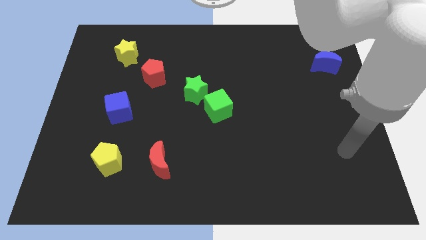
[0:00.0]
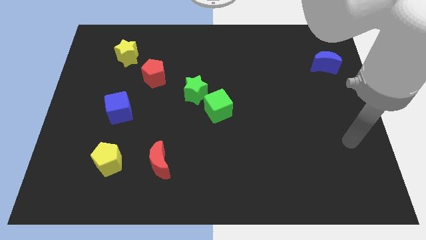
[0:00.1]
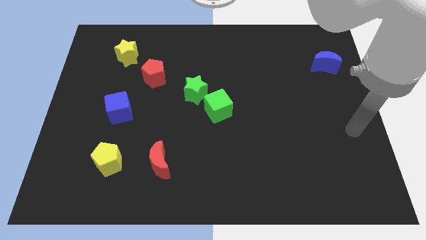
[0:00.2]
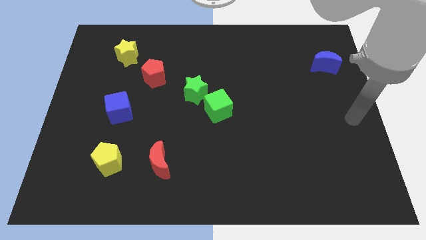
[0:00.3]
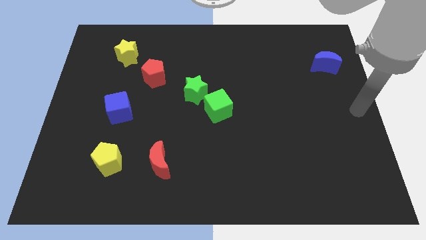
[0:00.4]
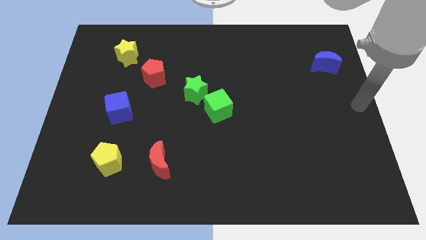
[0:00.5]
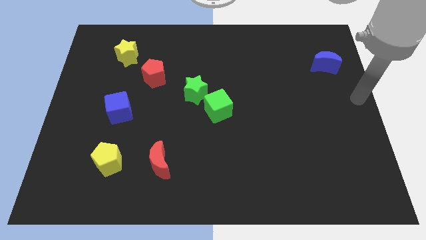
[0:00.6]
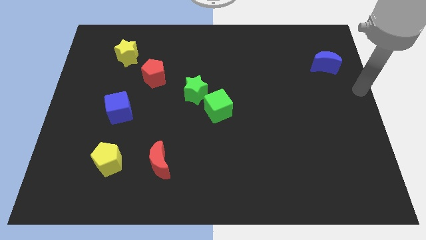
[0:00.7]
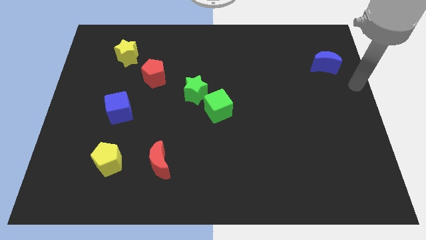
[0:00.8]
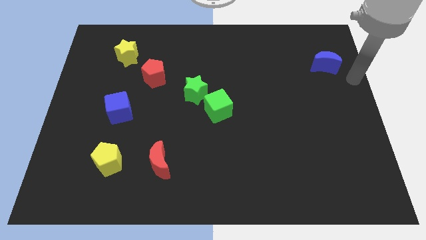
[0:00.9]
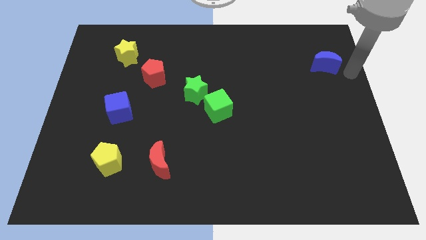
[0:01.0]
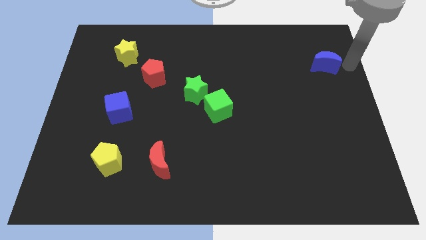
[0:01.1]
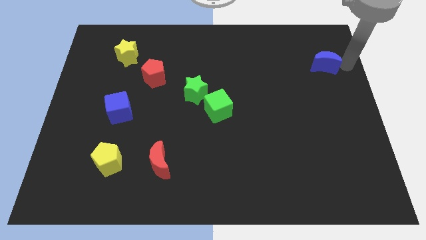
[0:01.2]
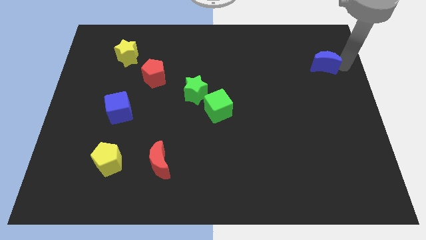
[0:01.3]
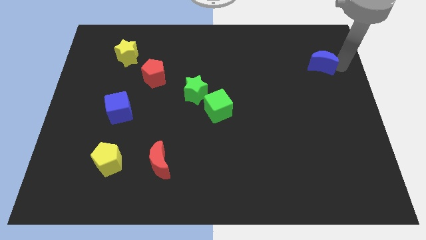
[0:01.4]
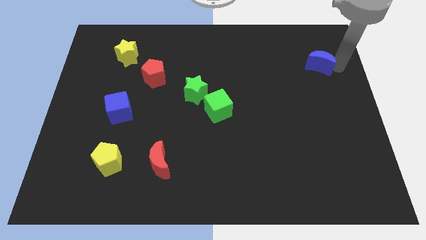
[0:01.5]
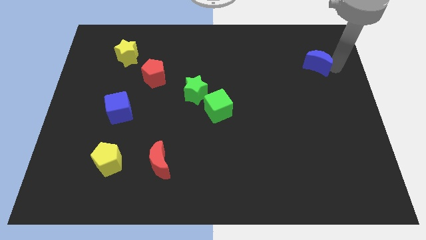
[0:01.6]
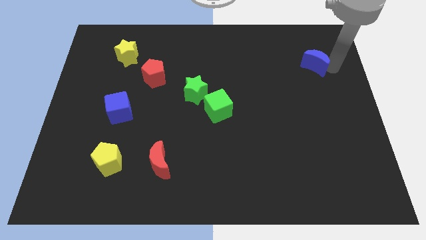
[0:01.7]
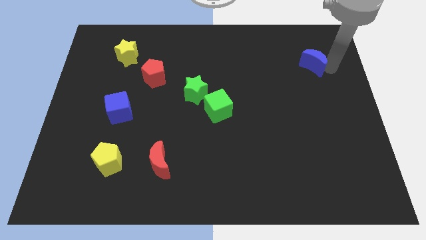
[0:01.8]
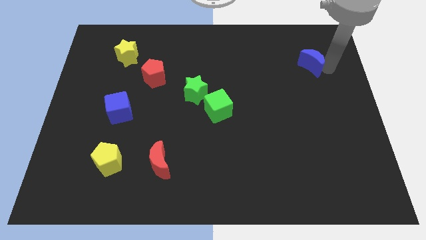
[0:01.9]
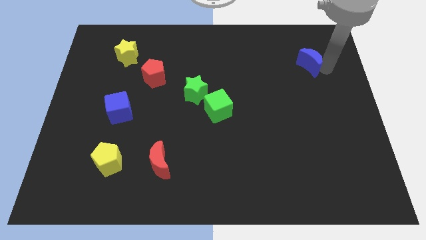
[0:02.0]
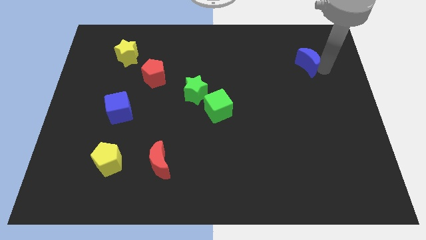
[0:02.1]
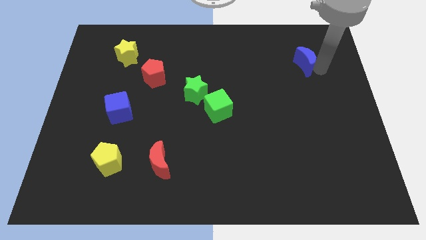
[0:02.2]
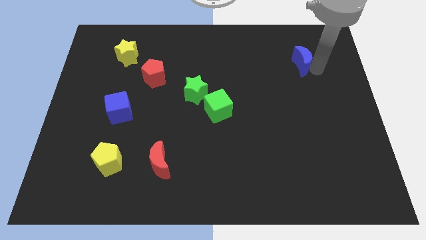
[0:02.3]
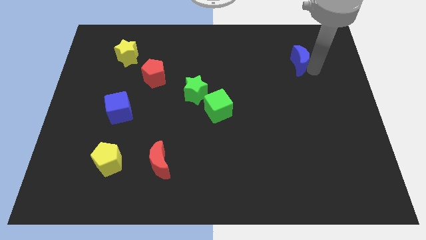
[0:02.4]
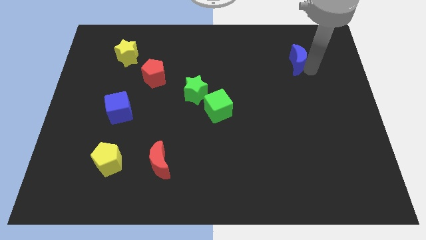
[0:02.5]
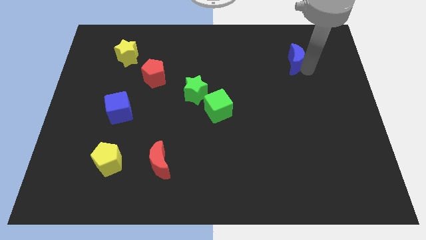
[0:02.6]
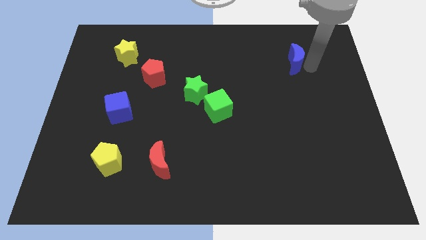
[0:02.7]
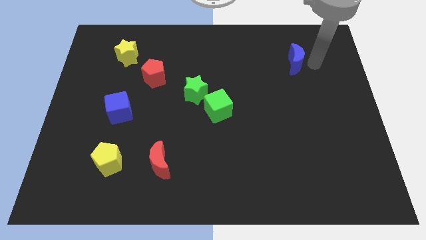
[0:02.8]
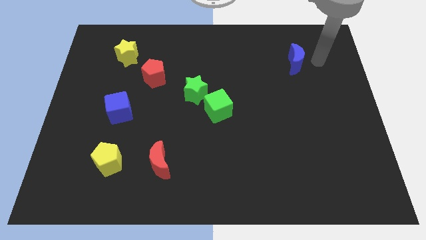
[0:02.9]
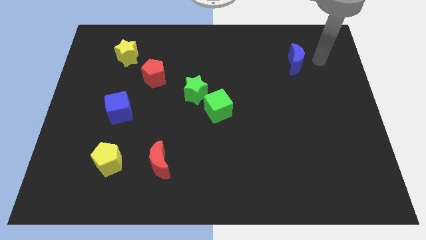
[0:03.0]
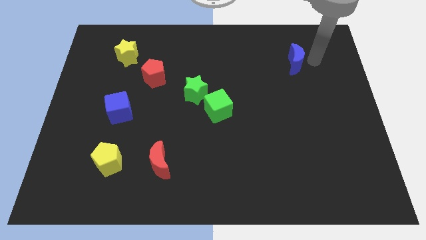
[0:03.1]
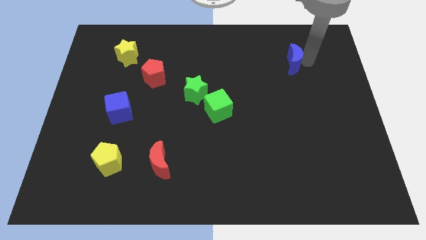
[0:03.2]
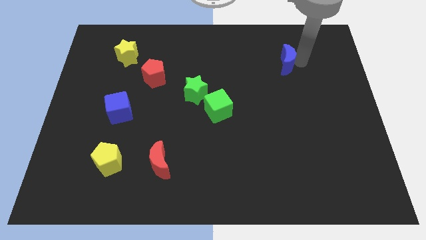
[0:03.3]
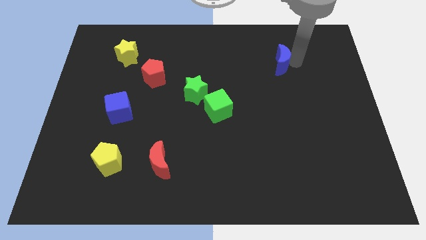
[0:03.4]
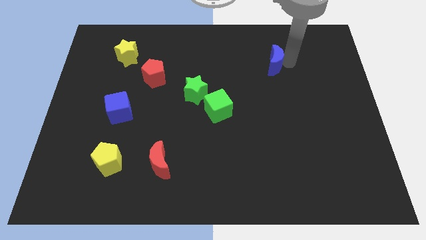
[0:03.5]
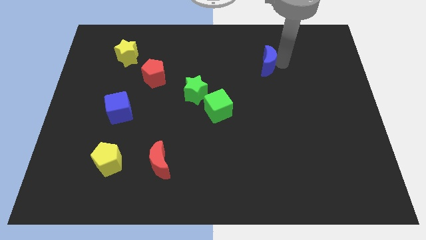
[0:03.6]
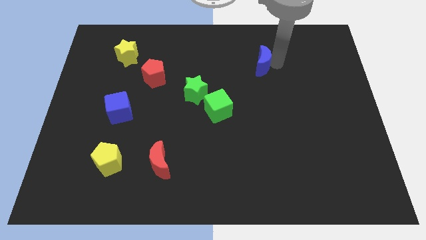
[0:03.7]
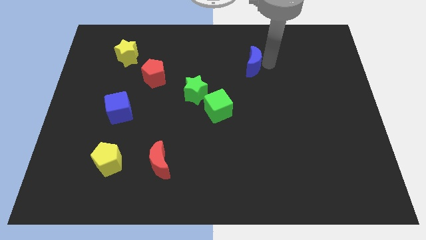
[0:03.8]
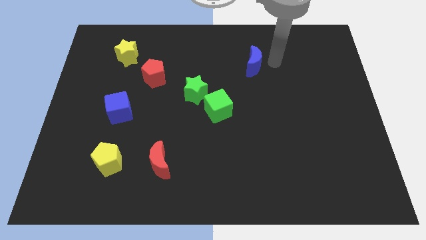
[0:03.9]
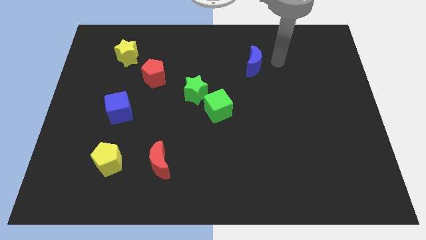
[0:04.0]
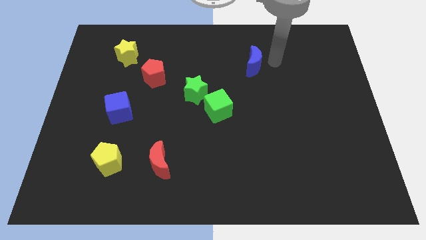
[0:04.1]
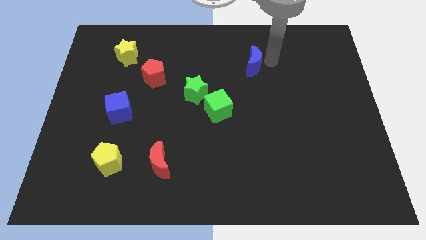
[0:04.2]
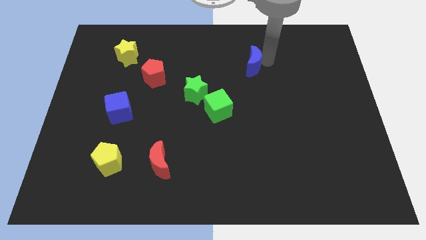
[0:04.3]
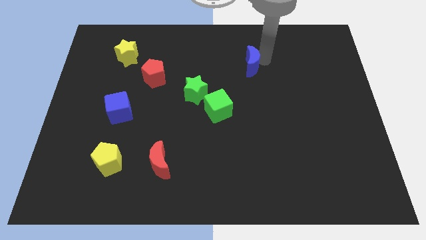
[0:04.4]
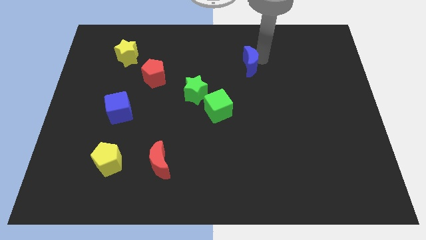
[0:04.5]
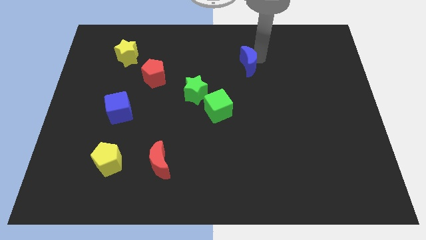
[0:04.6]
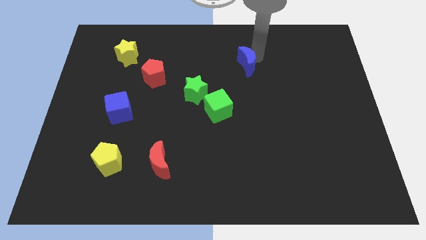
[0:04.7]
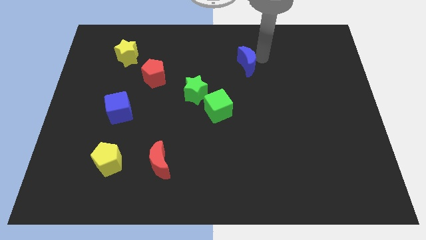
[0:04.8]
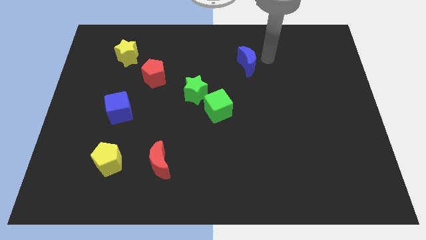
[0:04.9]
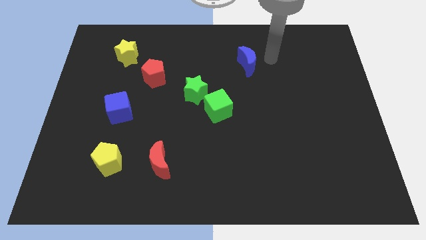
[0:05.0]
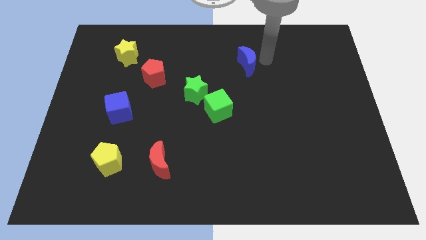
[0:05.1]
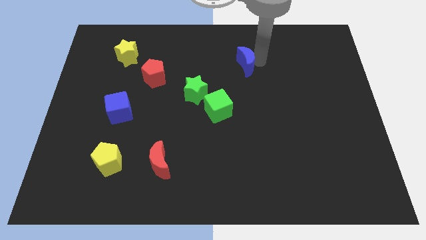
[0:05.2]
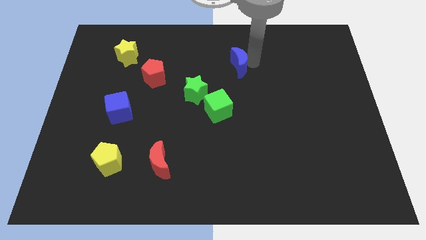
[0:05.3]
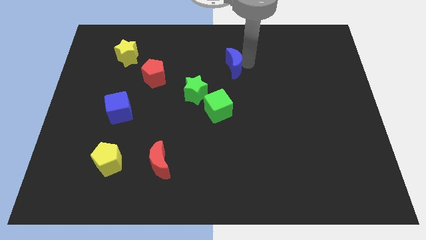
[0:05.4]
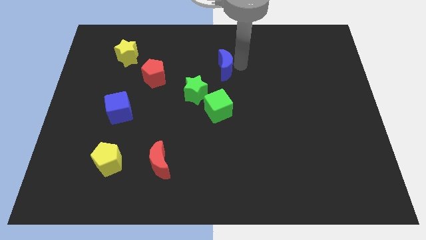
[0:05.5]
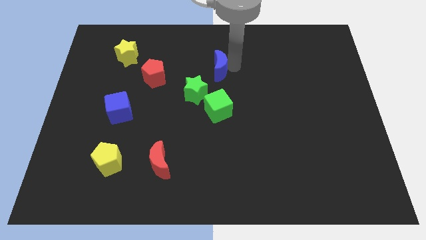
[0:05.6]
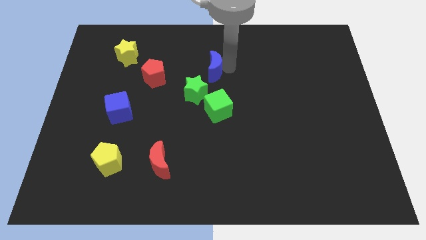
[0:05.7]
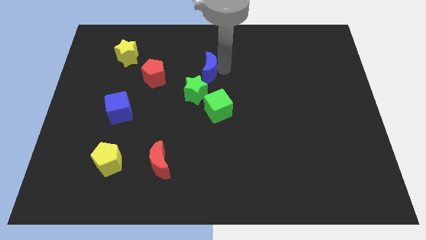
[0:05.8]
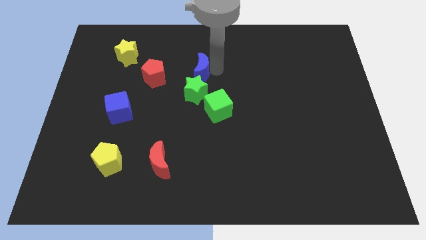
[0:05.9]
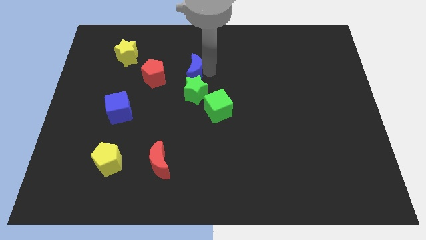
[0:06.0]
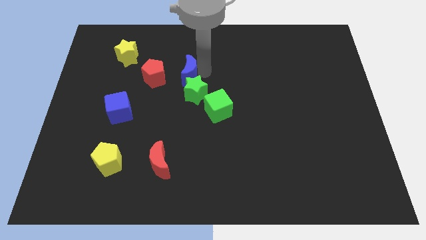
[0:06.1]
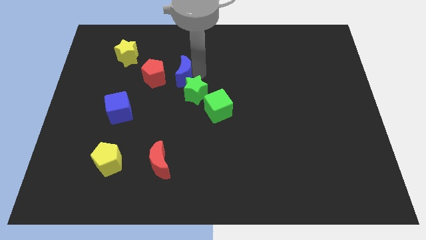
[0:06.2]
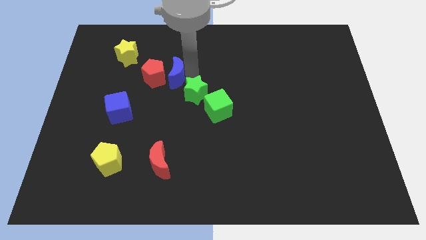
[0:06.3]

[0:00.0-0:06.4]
slide the blue moon close to the red pentagon

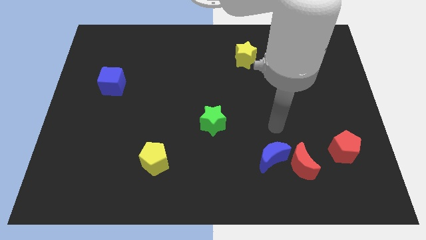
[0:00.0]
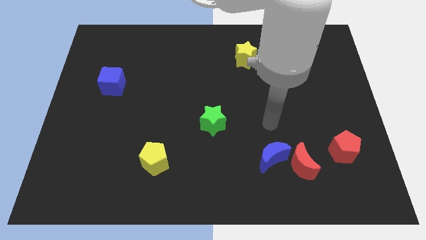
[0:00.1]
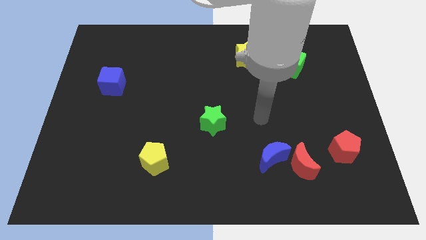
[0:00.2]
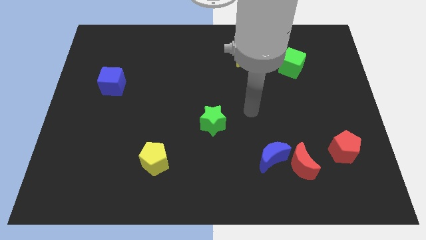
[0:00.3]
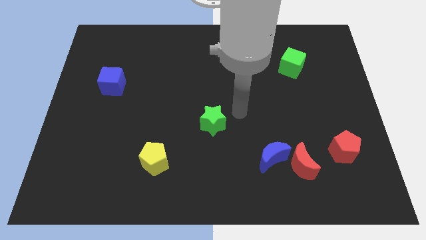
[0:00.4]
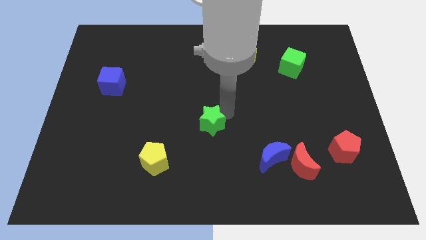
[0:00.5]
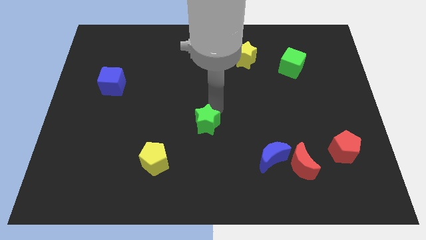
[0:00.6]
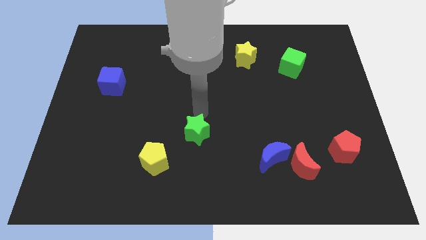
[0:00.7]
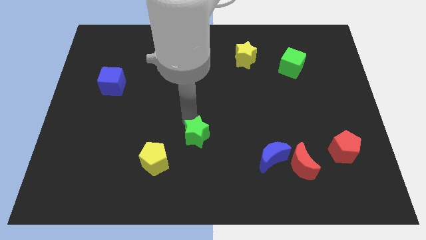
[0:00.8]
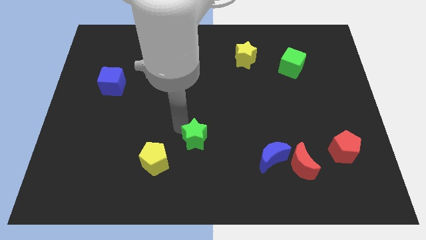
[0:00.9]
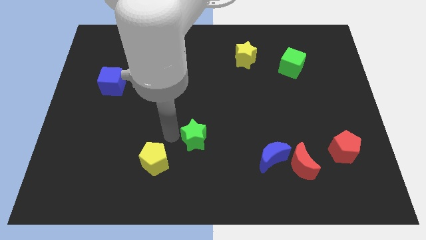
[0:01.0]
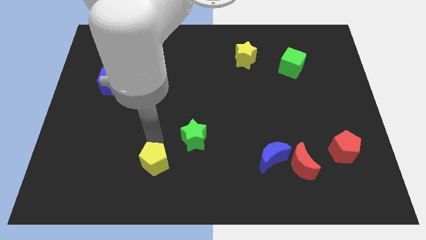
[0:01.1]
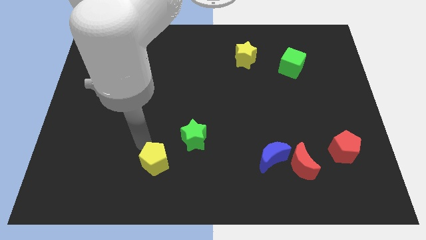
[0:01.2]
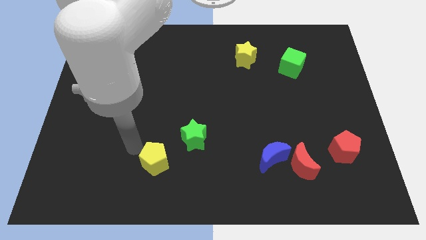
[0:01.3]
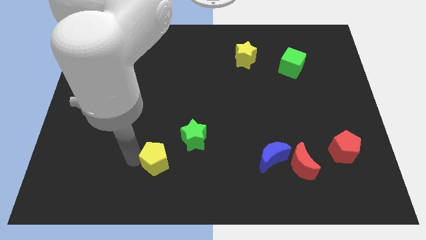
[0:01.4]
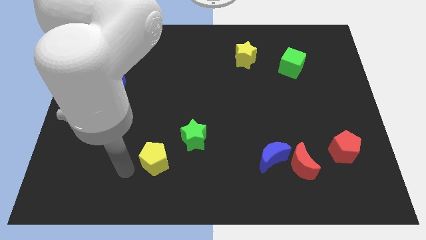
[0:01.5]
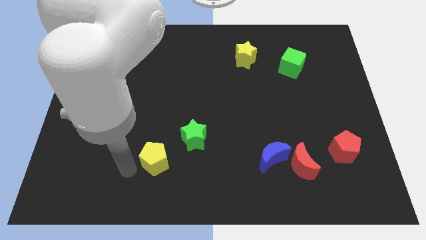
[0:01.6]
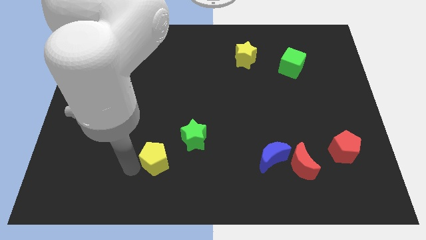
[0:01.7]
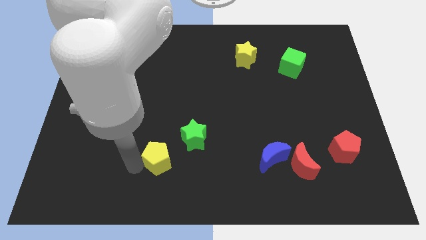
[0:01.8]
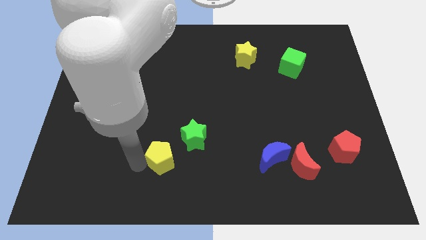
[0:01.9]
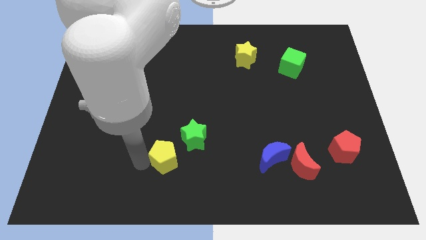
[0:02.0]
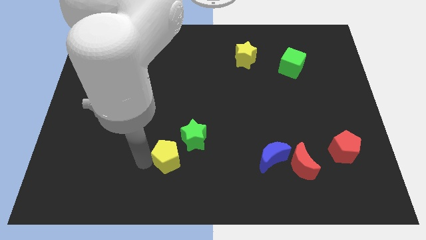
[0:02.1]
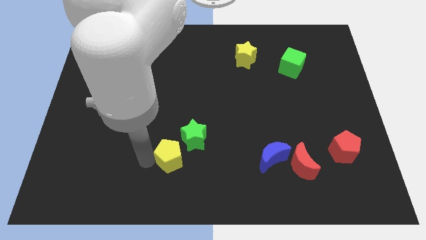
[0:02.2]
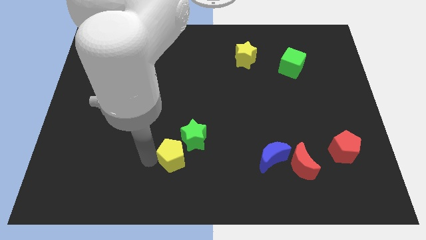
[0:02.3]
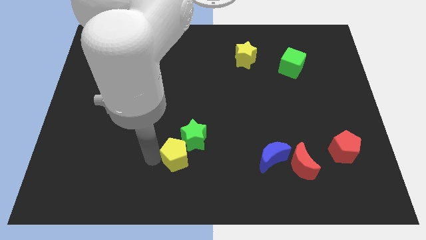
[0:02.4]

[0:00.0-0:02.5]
push the yellow pentagon towards the green star
